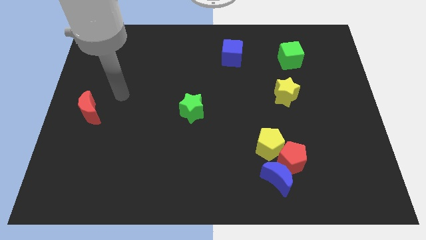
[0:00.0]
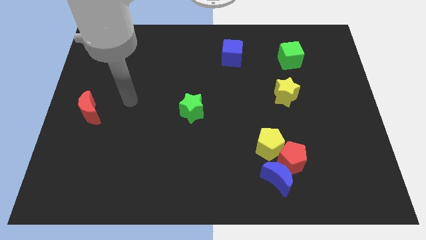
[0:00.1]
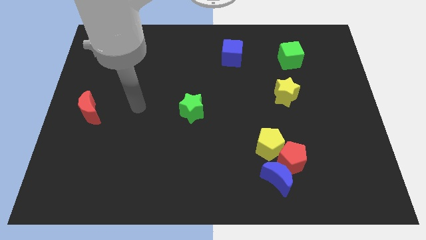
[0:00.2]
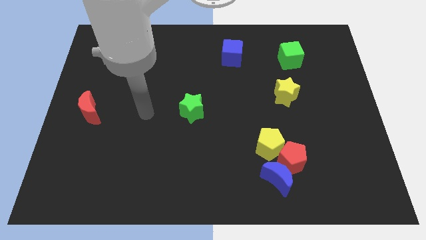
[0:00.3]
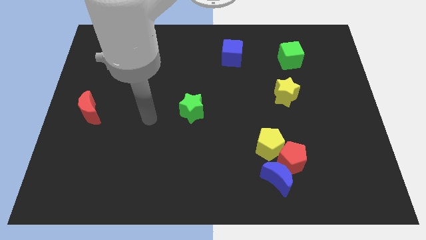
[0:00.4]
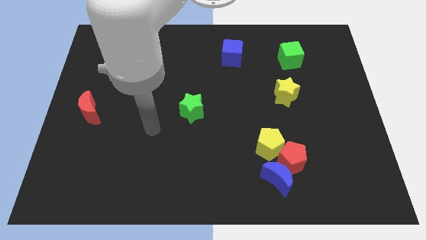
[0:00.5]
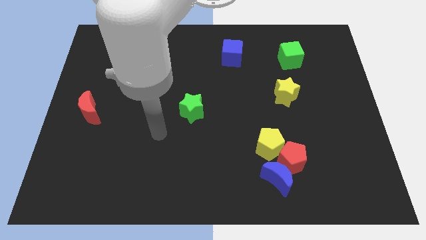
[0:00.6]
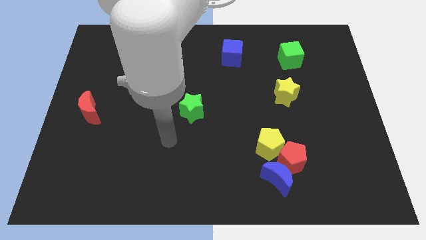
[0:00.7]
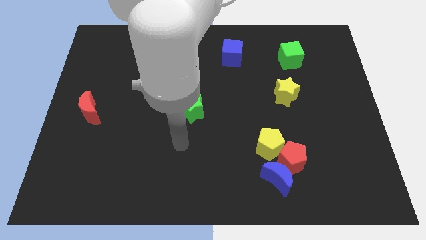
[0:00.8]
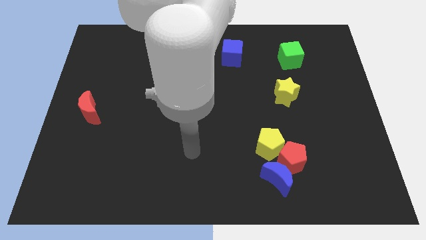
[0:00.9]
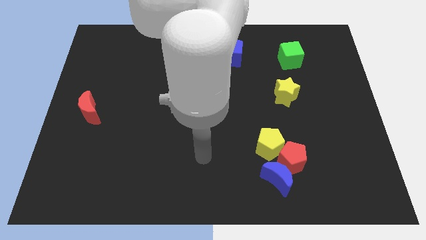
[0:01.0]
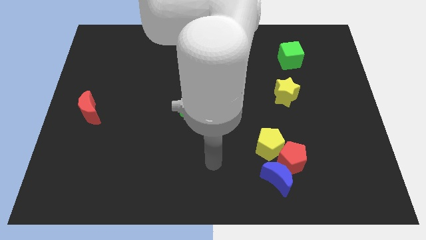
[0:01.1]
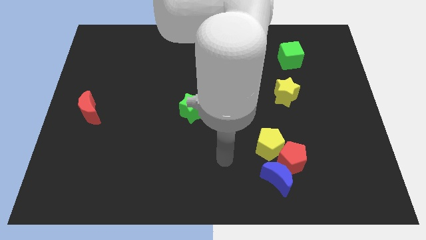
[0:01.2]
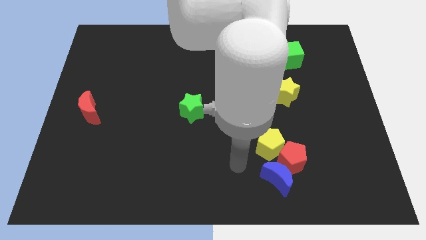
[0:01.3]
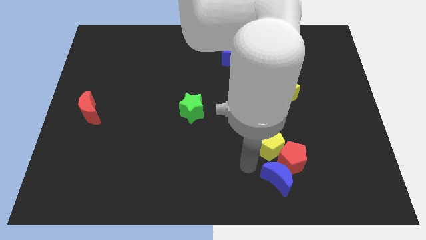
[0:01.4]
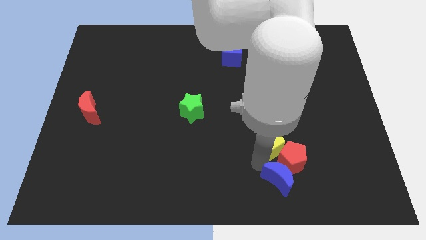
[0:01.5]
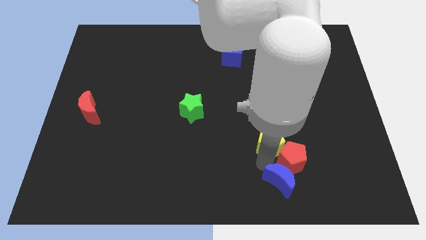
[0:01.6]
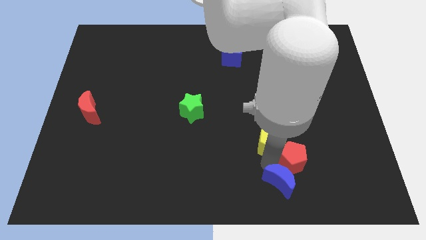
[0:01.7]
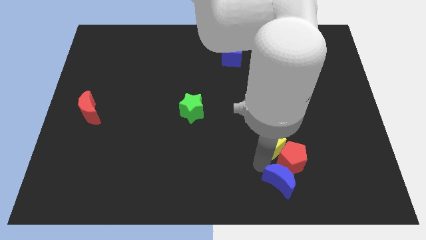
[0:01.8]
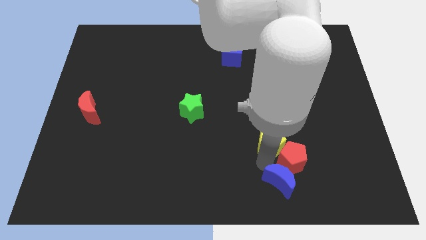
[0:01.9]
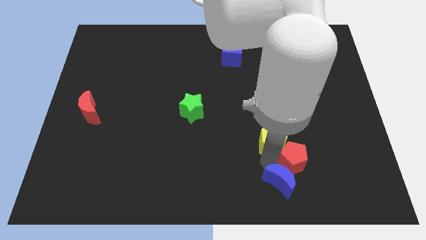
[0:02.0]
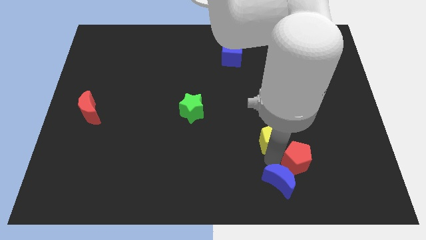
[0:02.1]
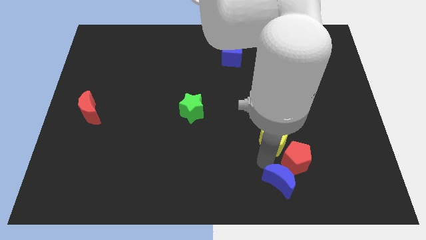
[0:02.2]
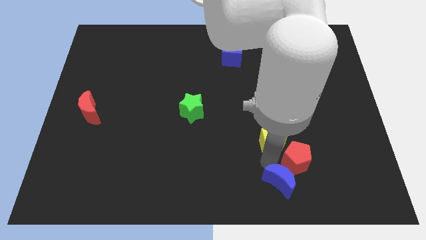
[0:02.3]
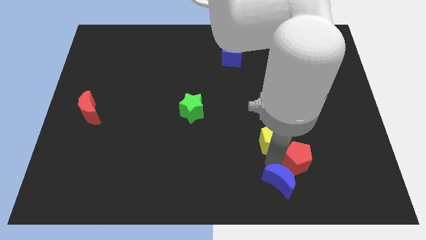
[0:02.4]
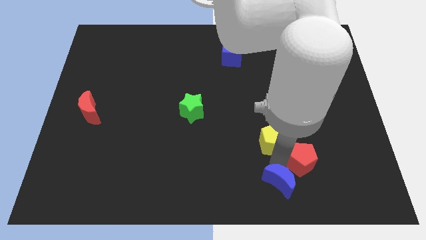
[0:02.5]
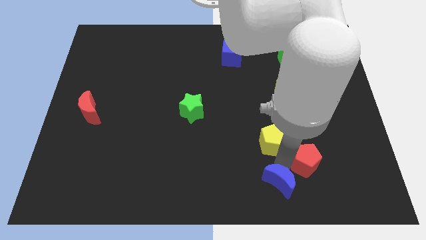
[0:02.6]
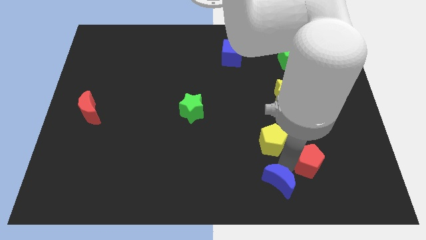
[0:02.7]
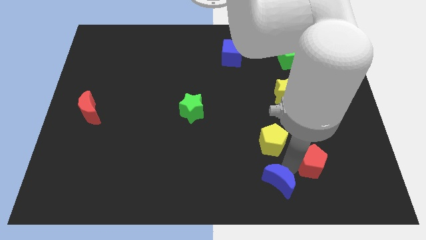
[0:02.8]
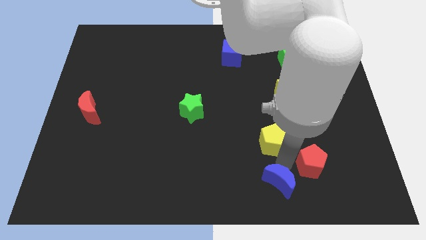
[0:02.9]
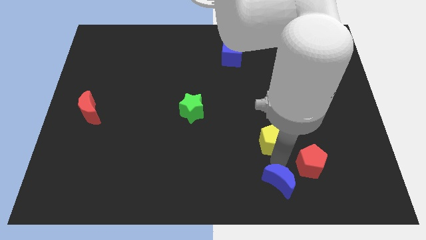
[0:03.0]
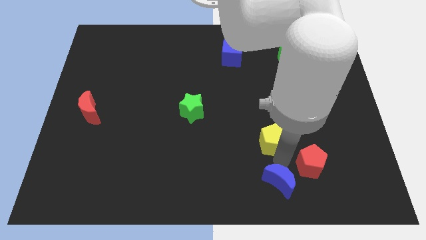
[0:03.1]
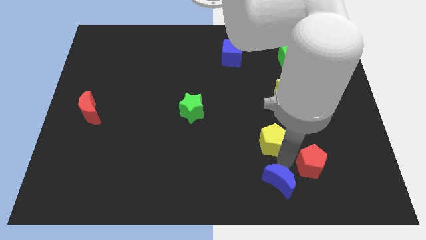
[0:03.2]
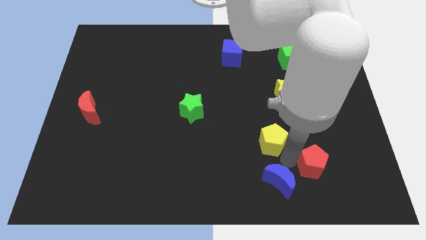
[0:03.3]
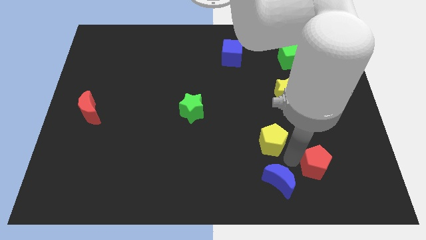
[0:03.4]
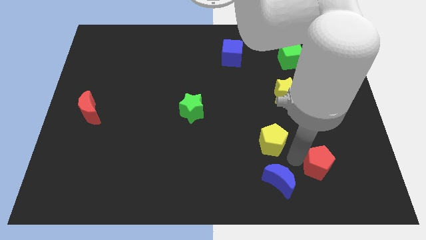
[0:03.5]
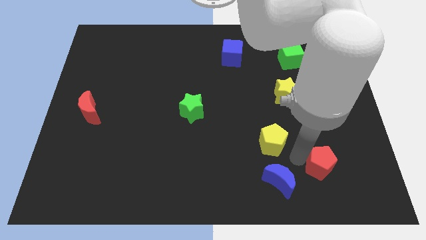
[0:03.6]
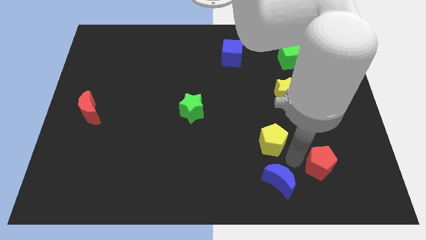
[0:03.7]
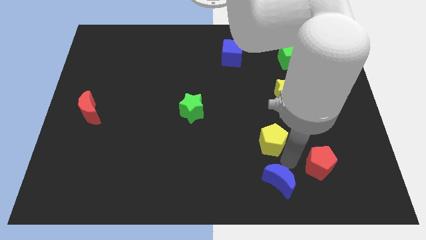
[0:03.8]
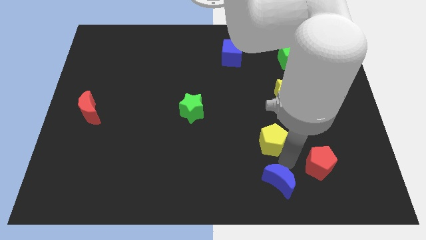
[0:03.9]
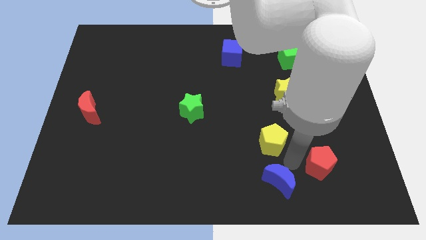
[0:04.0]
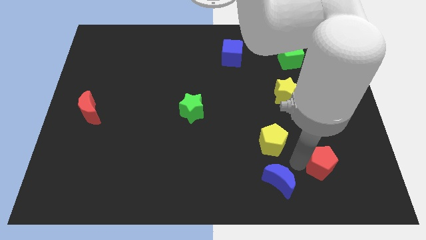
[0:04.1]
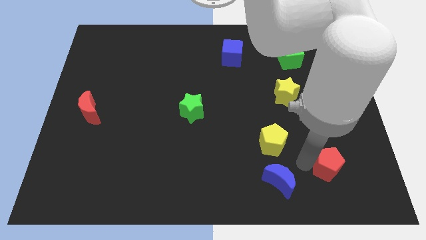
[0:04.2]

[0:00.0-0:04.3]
pull the red pentagon apart from the blue moon and yellow pentagon

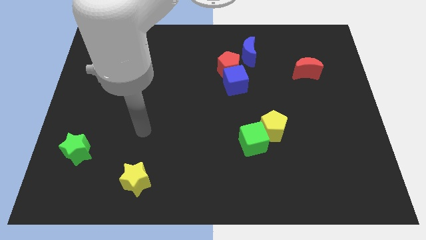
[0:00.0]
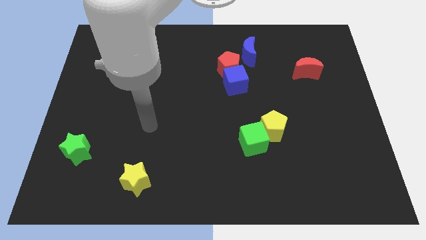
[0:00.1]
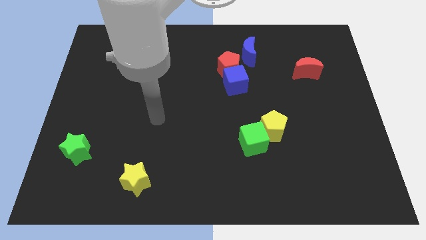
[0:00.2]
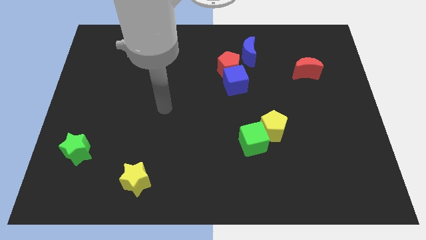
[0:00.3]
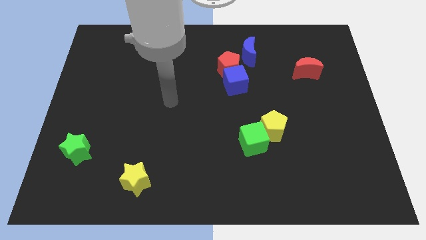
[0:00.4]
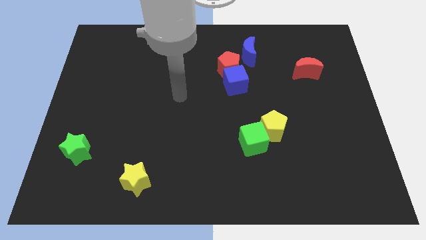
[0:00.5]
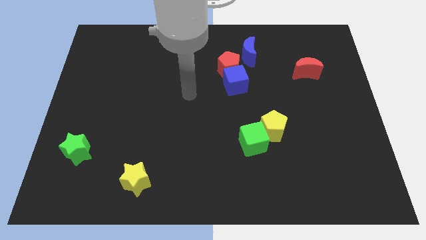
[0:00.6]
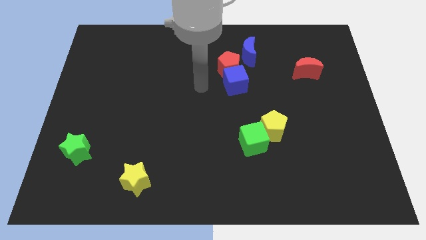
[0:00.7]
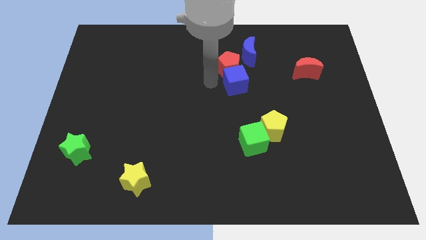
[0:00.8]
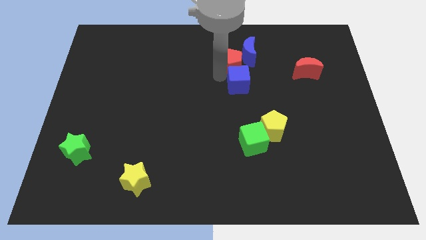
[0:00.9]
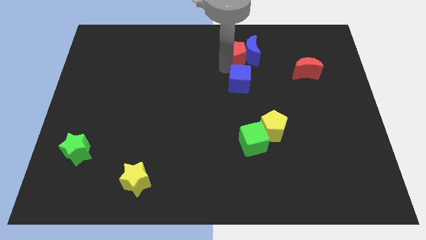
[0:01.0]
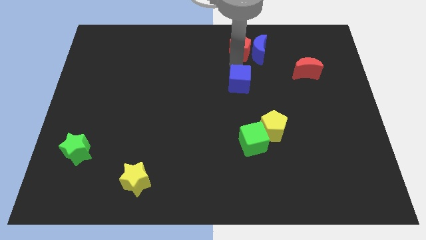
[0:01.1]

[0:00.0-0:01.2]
move the blue cube away from the red pentagon

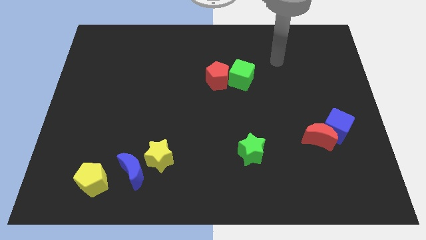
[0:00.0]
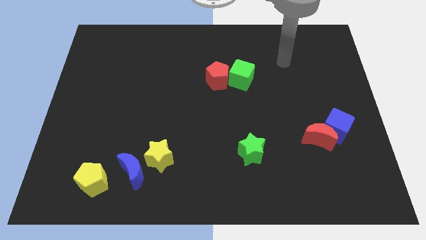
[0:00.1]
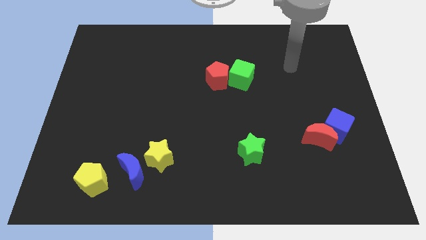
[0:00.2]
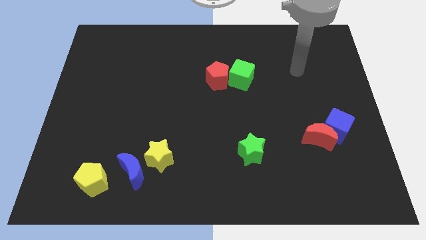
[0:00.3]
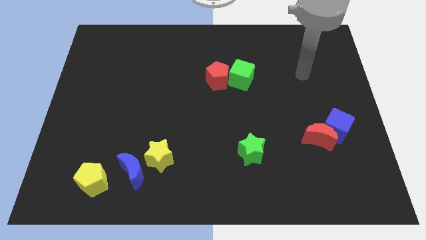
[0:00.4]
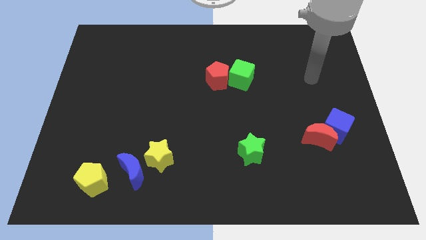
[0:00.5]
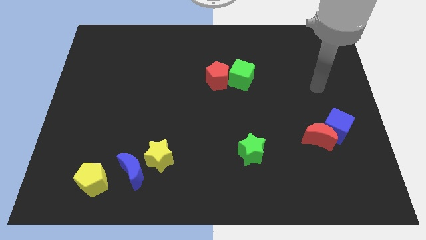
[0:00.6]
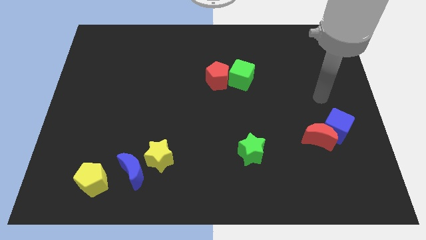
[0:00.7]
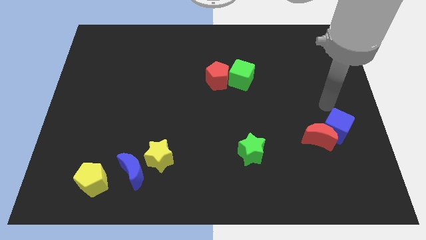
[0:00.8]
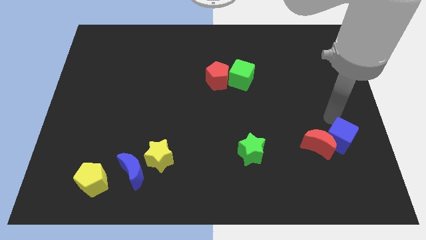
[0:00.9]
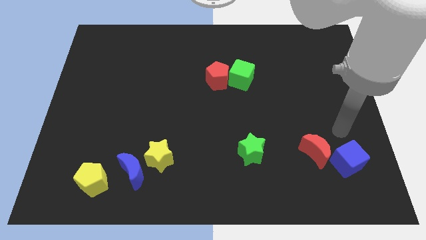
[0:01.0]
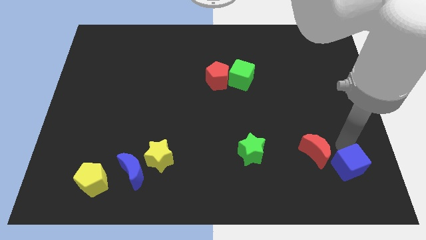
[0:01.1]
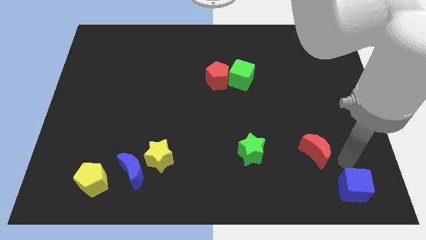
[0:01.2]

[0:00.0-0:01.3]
move the red moon away from the blue cube

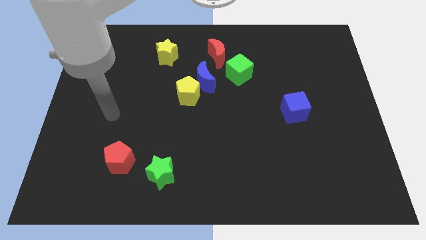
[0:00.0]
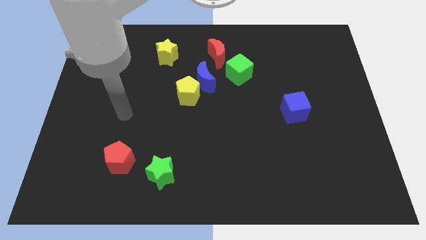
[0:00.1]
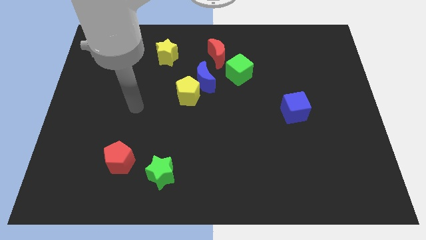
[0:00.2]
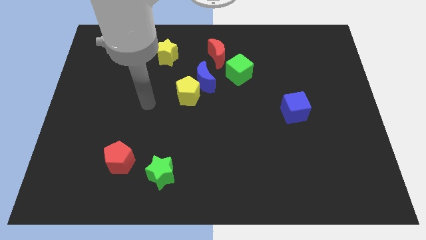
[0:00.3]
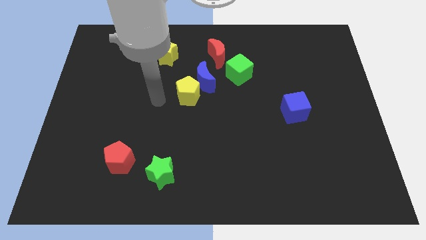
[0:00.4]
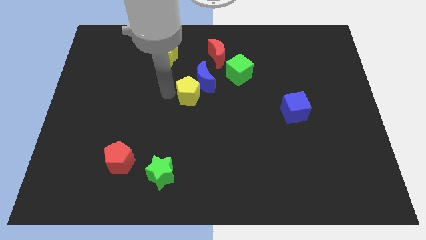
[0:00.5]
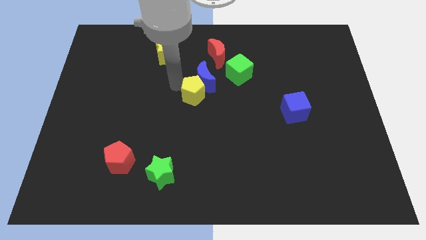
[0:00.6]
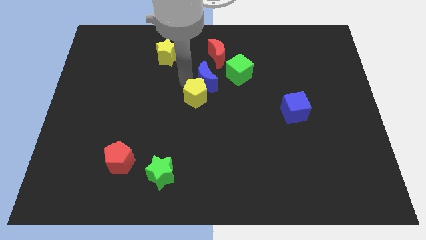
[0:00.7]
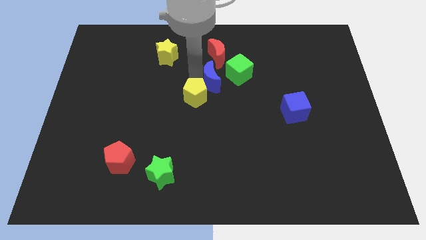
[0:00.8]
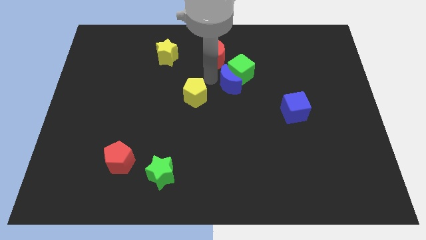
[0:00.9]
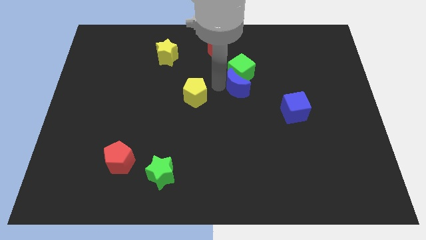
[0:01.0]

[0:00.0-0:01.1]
pull the yellow pentagon apart from the blue moon

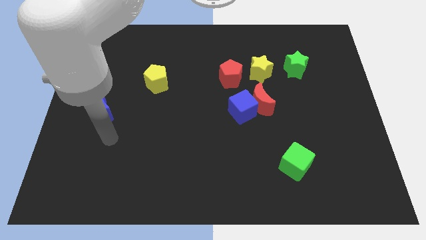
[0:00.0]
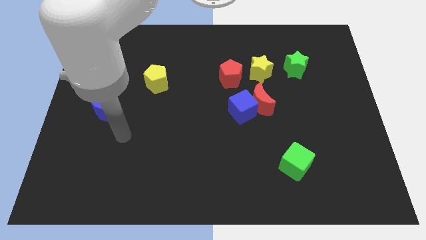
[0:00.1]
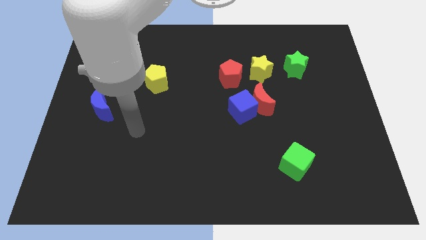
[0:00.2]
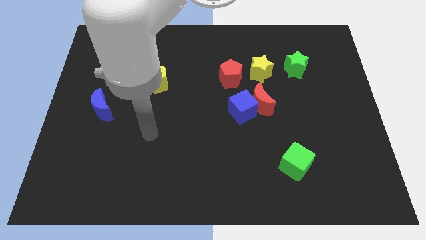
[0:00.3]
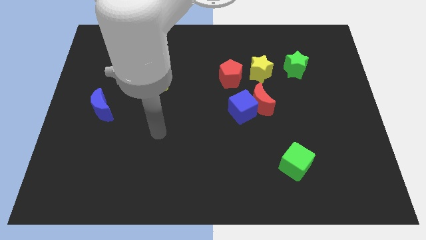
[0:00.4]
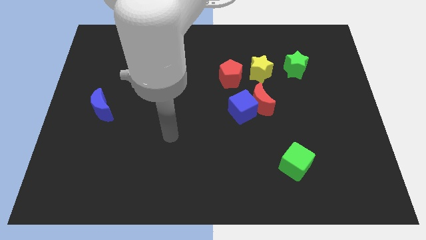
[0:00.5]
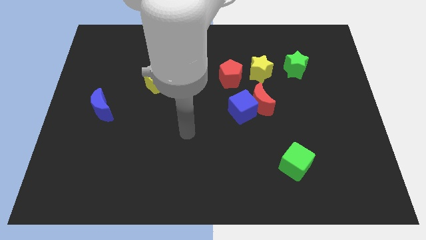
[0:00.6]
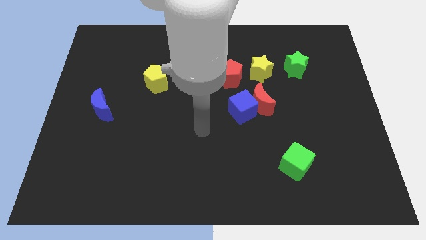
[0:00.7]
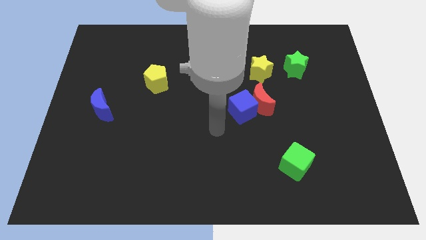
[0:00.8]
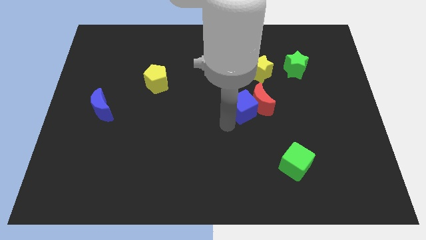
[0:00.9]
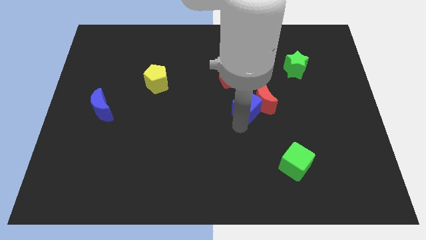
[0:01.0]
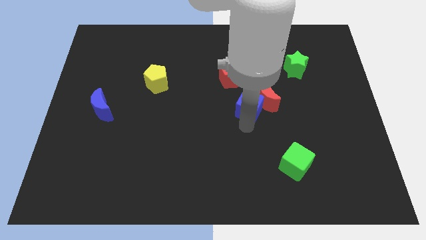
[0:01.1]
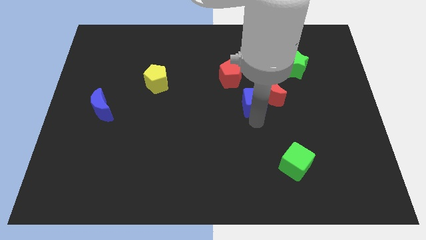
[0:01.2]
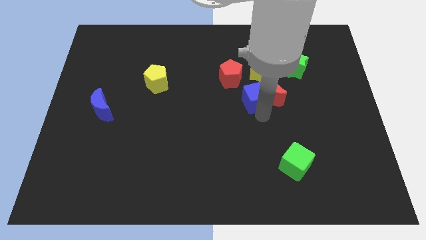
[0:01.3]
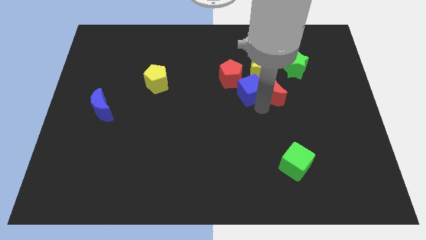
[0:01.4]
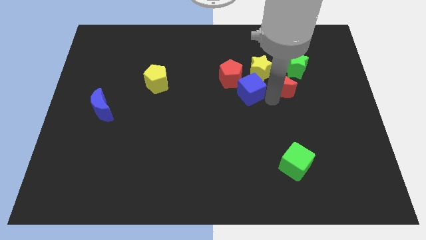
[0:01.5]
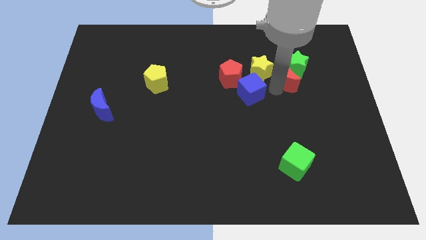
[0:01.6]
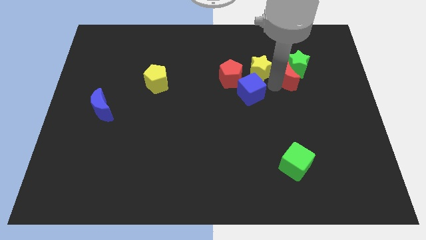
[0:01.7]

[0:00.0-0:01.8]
move the blue cube away from the red moon
